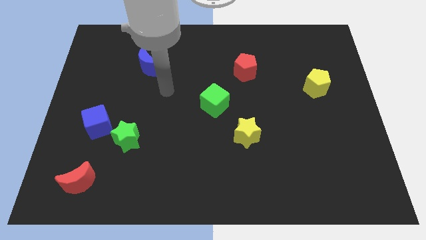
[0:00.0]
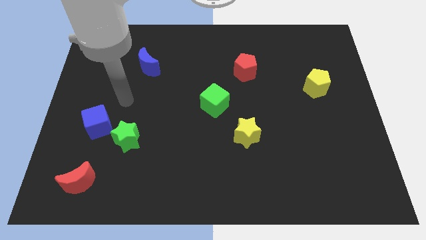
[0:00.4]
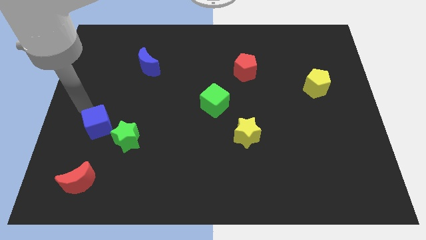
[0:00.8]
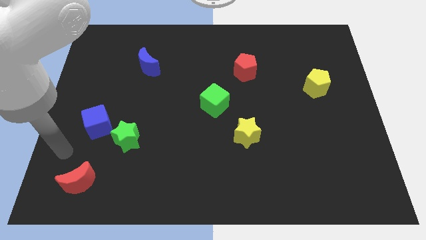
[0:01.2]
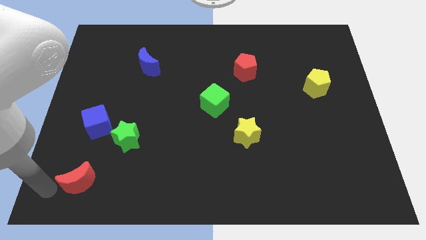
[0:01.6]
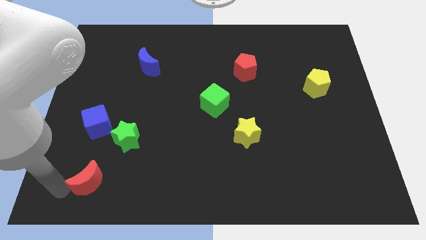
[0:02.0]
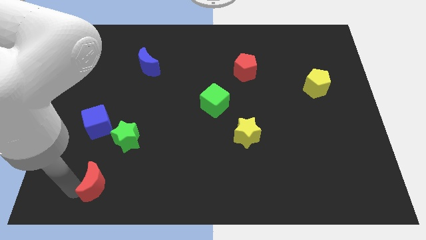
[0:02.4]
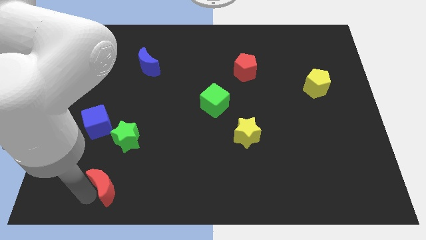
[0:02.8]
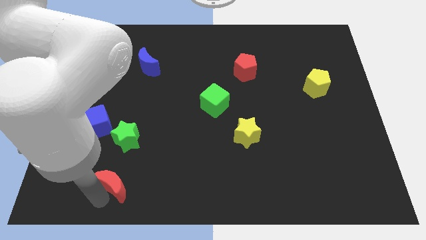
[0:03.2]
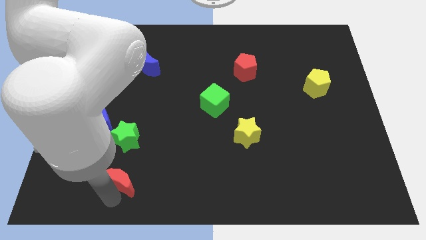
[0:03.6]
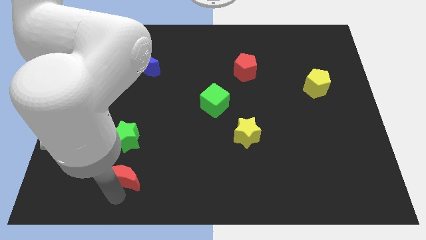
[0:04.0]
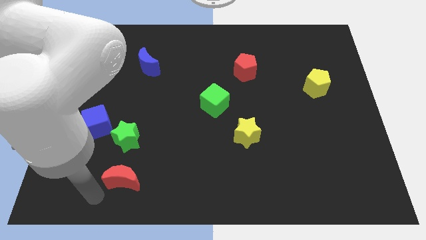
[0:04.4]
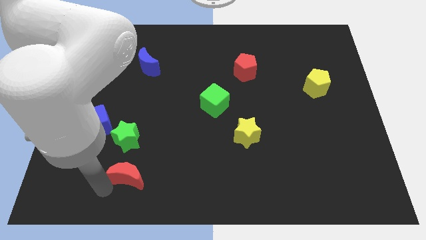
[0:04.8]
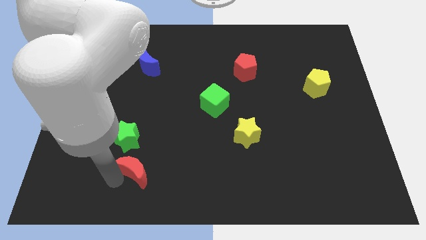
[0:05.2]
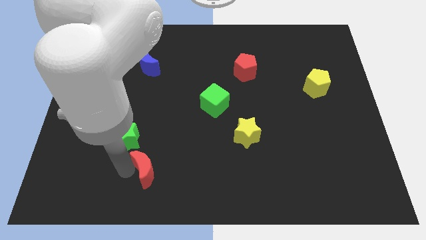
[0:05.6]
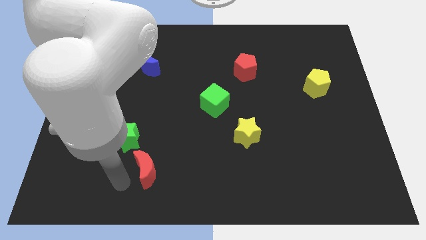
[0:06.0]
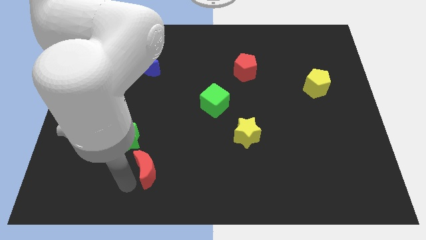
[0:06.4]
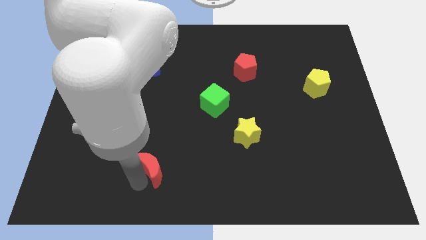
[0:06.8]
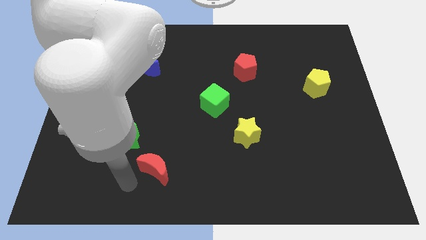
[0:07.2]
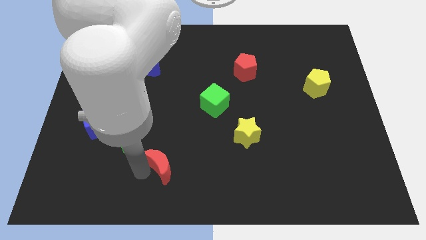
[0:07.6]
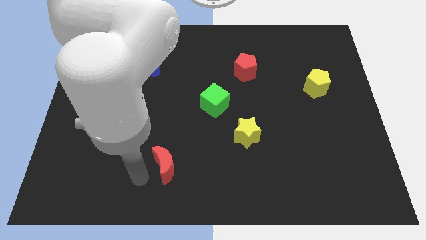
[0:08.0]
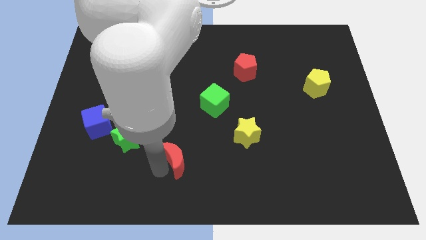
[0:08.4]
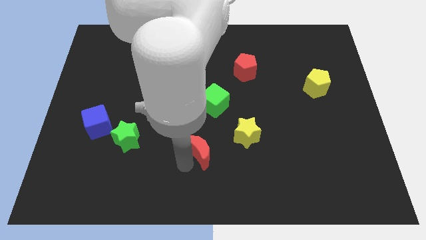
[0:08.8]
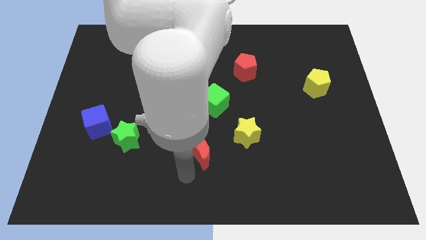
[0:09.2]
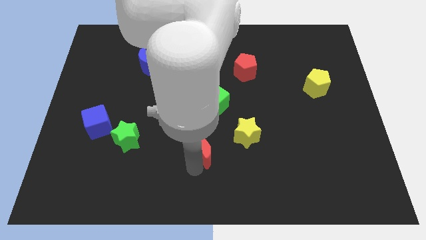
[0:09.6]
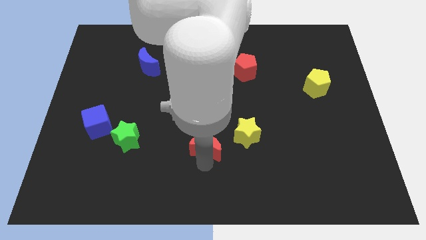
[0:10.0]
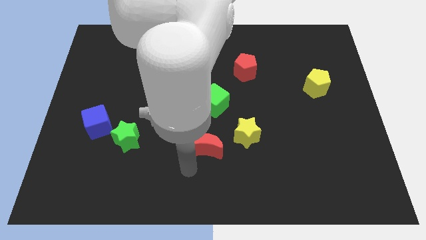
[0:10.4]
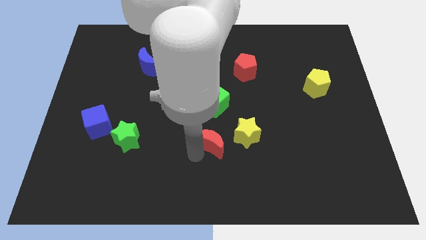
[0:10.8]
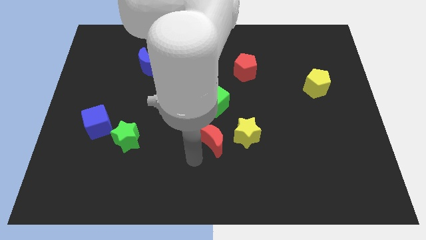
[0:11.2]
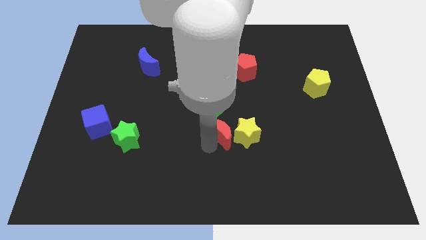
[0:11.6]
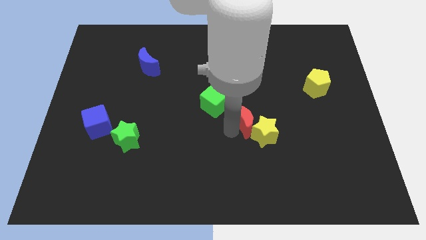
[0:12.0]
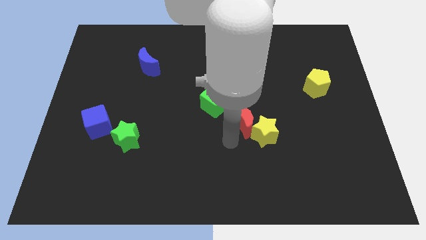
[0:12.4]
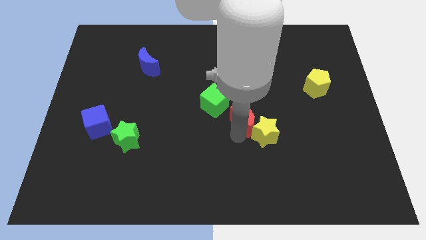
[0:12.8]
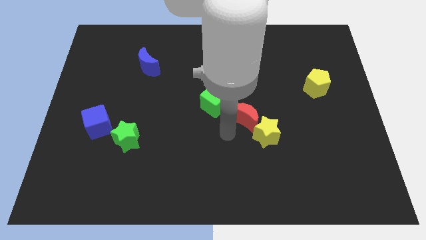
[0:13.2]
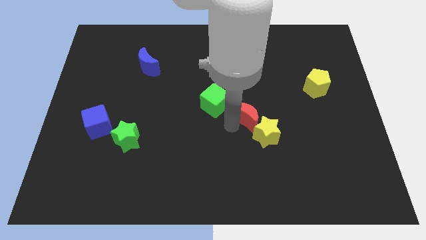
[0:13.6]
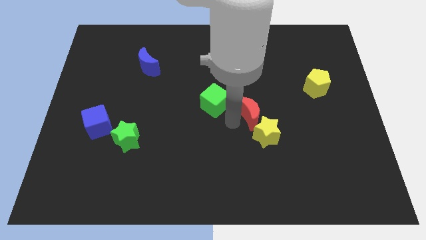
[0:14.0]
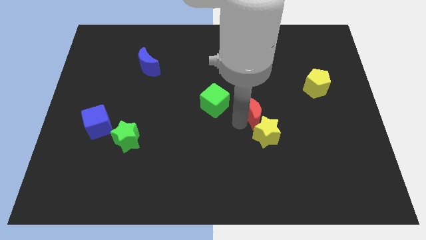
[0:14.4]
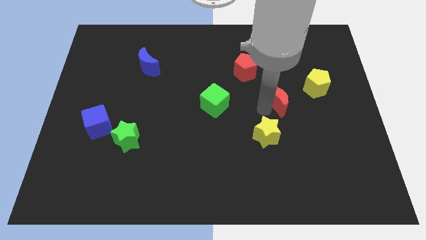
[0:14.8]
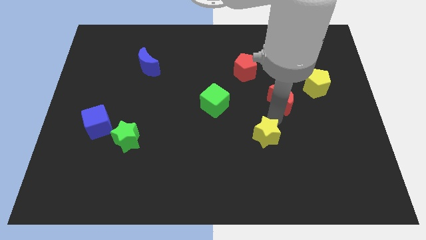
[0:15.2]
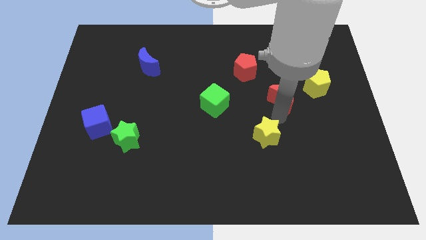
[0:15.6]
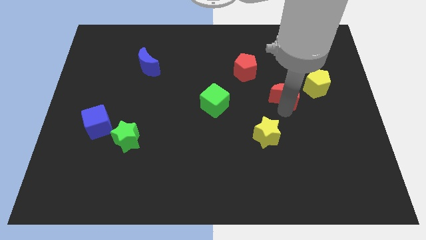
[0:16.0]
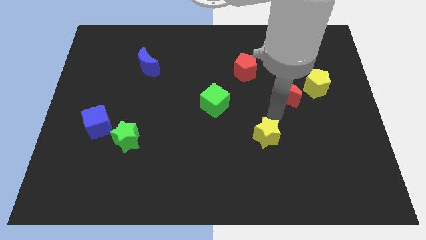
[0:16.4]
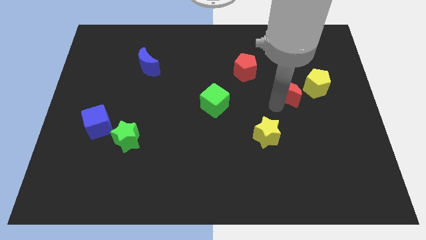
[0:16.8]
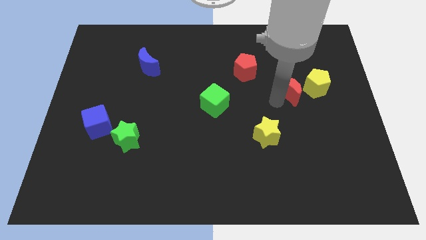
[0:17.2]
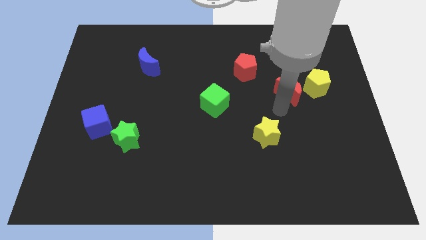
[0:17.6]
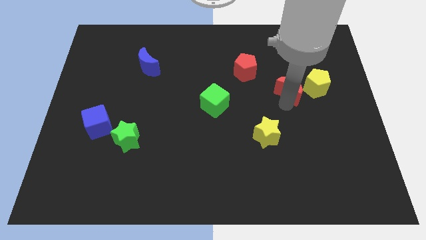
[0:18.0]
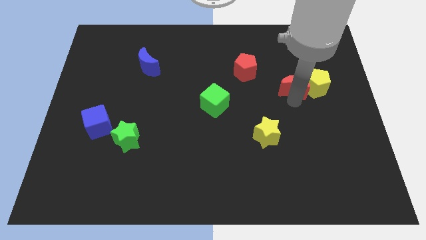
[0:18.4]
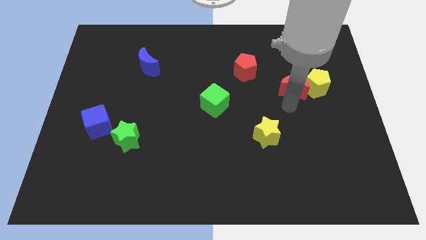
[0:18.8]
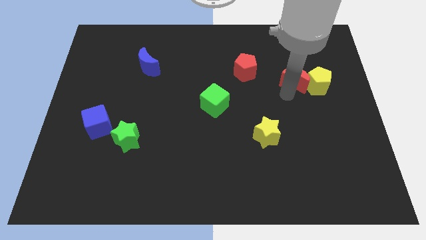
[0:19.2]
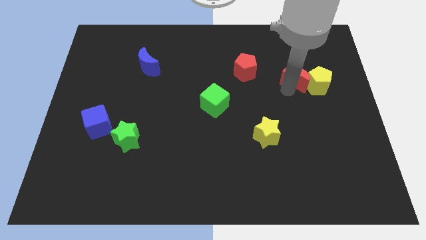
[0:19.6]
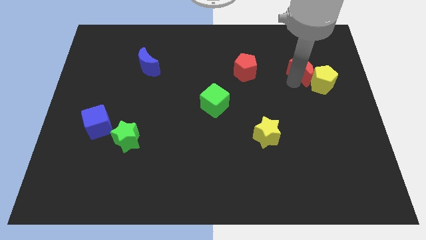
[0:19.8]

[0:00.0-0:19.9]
move the red moon above the yellow pentagon

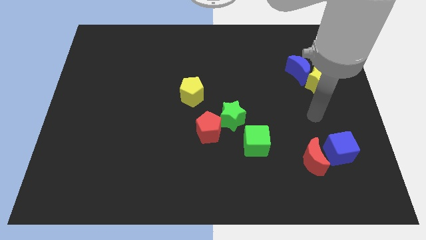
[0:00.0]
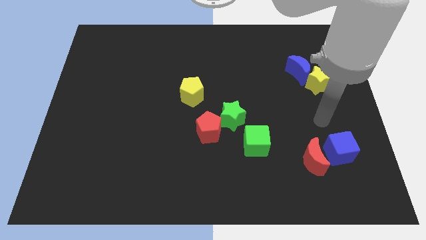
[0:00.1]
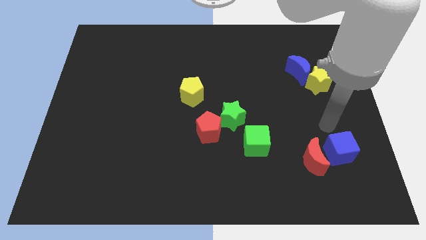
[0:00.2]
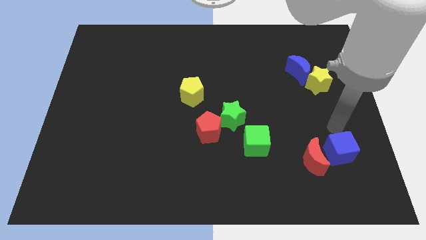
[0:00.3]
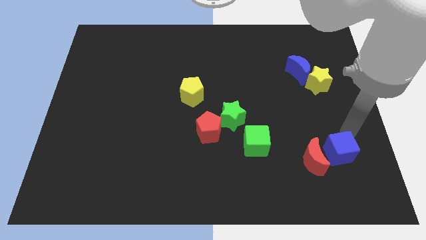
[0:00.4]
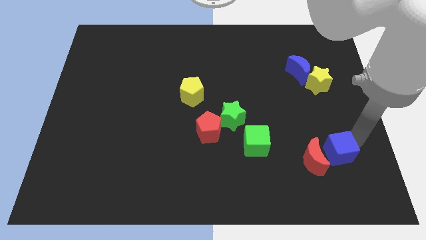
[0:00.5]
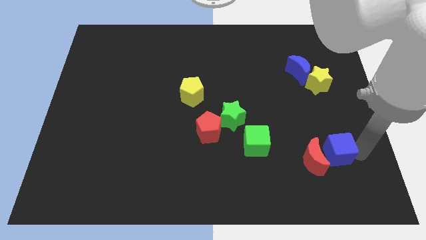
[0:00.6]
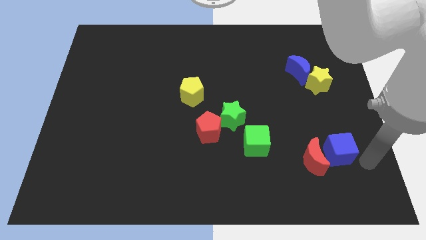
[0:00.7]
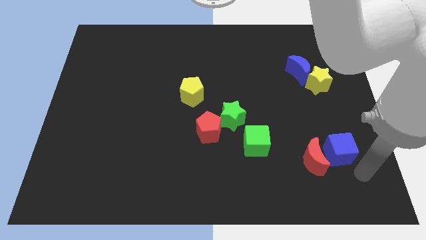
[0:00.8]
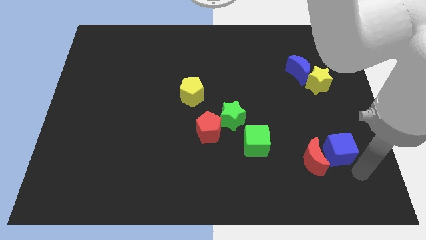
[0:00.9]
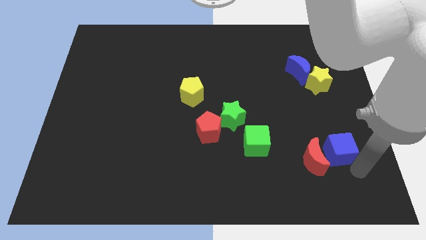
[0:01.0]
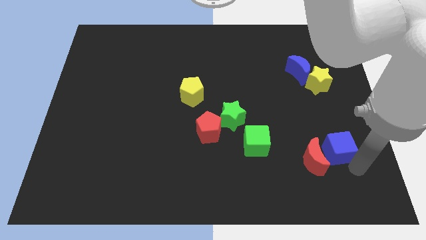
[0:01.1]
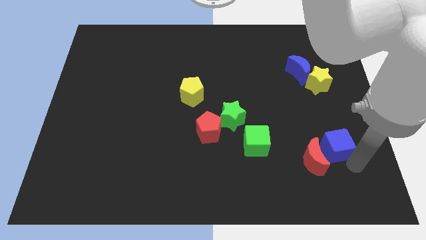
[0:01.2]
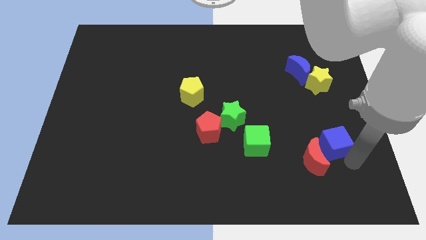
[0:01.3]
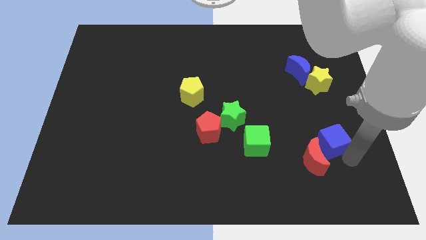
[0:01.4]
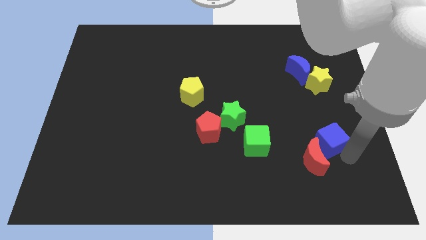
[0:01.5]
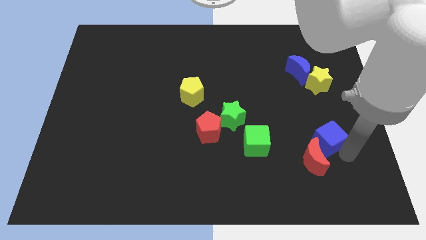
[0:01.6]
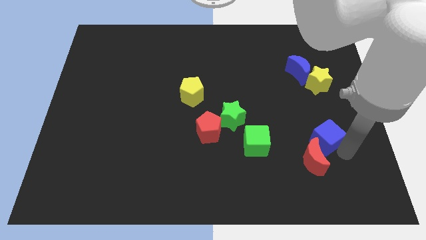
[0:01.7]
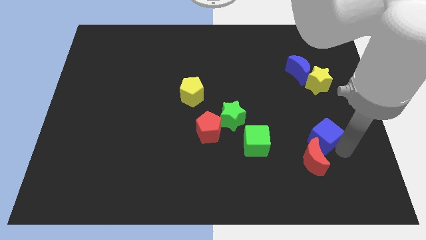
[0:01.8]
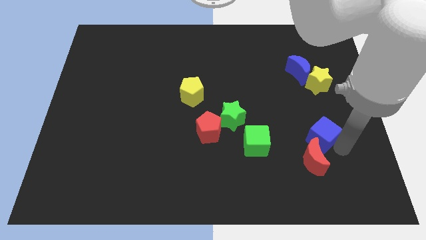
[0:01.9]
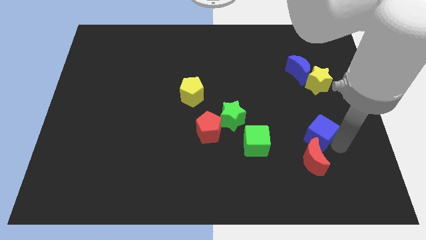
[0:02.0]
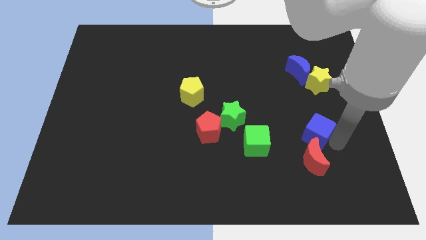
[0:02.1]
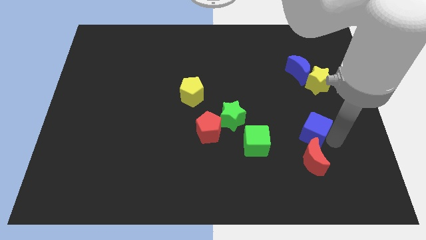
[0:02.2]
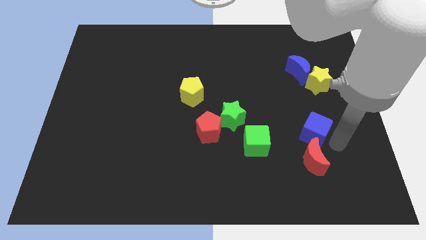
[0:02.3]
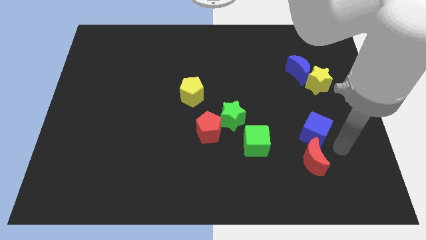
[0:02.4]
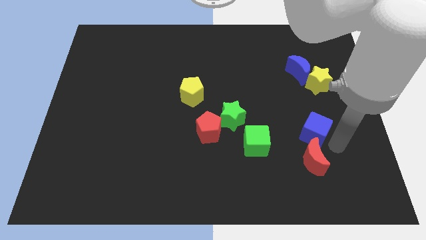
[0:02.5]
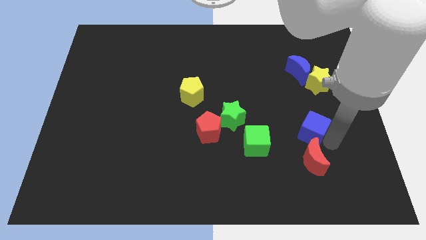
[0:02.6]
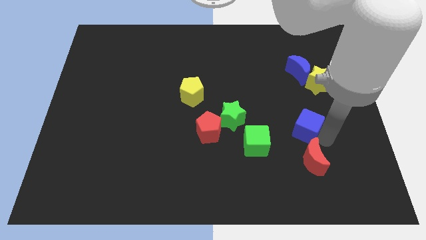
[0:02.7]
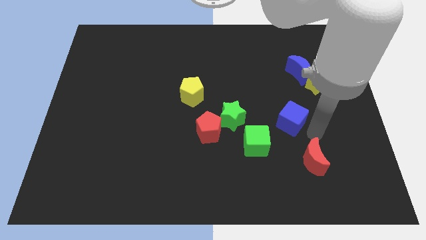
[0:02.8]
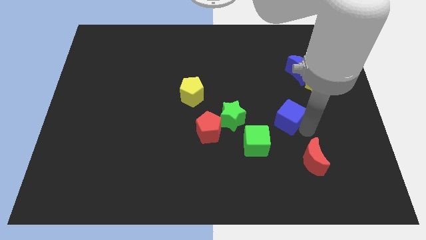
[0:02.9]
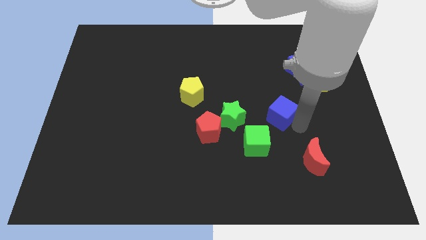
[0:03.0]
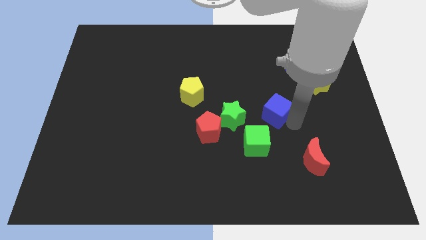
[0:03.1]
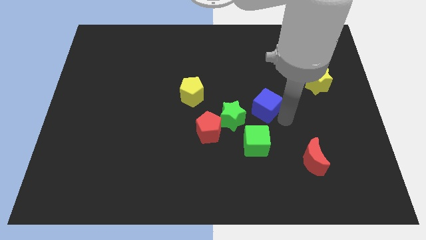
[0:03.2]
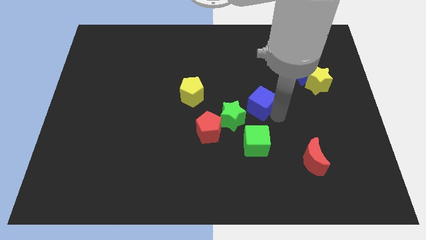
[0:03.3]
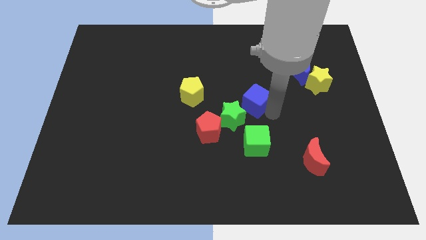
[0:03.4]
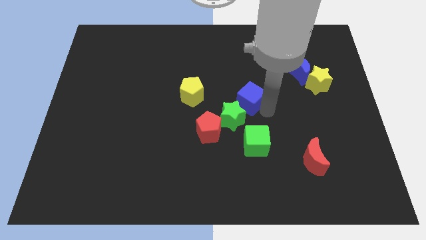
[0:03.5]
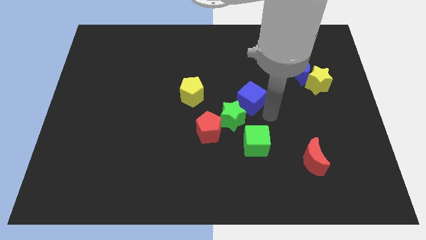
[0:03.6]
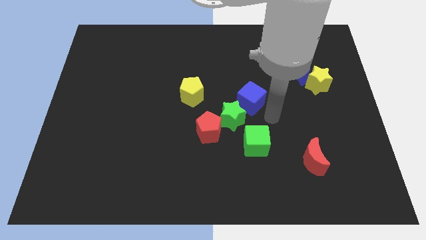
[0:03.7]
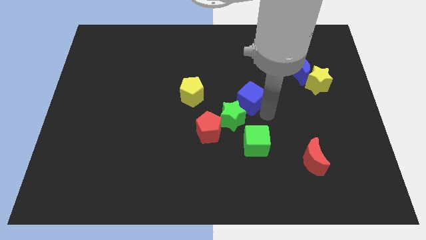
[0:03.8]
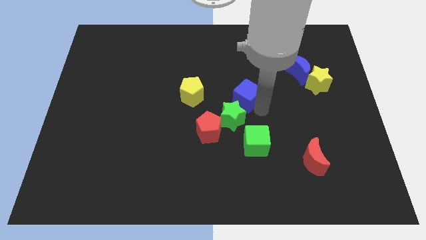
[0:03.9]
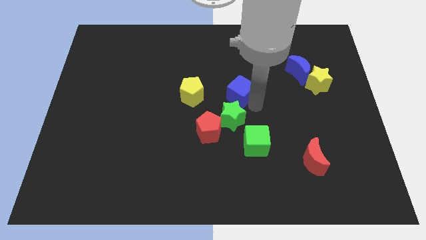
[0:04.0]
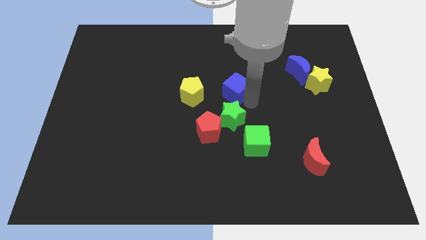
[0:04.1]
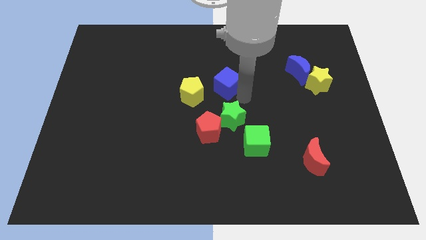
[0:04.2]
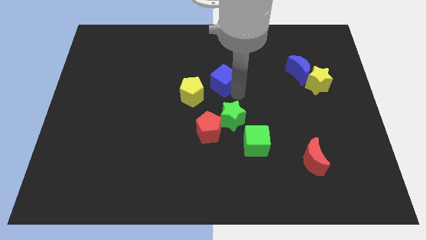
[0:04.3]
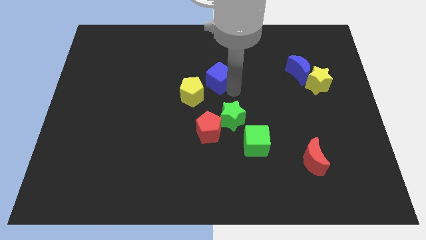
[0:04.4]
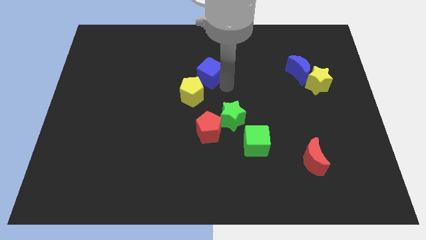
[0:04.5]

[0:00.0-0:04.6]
slide the blue cube to the top side of the yellow pentagon
